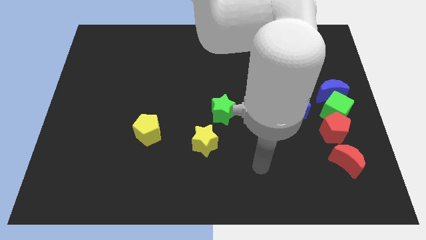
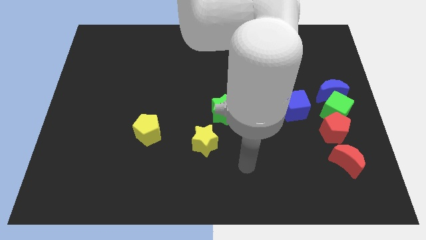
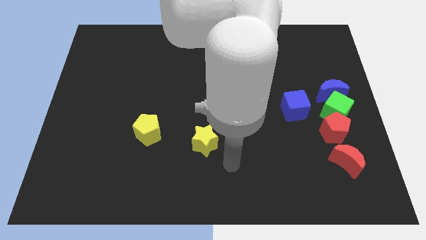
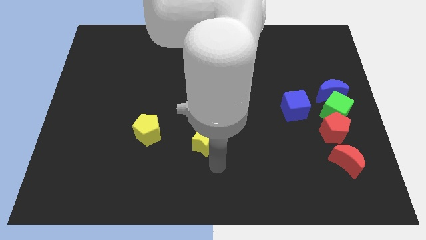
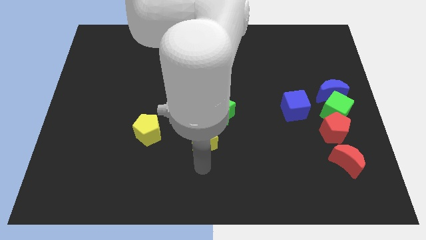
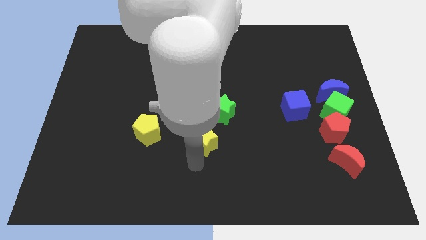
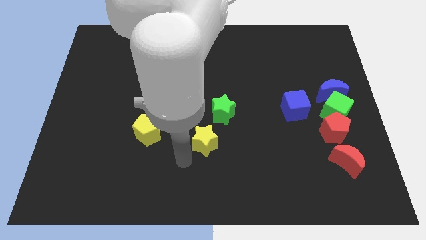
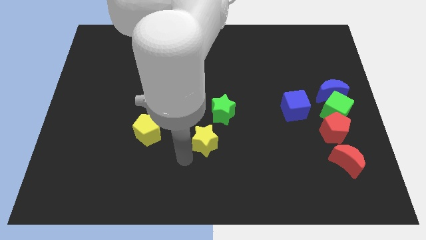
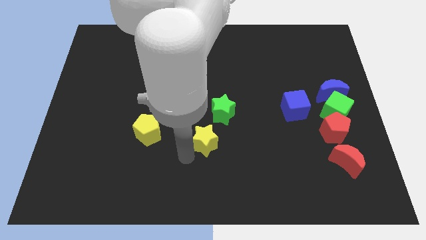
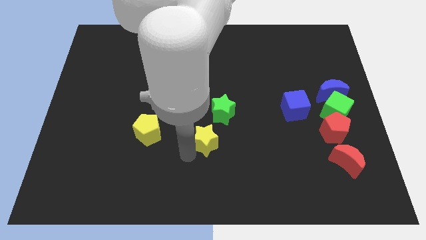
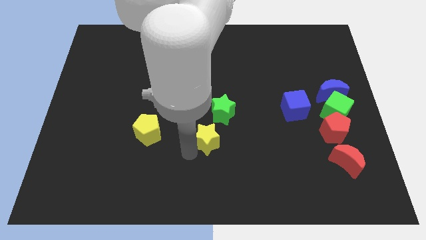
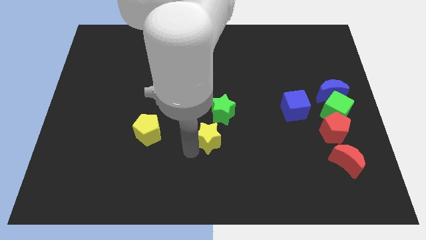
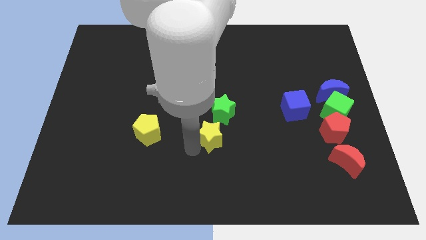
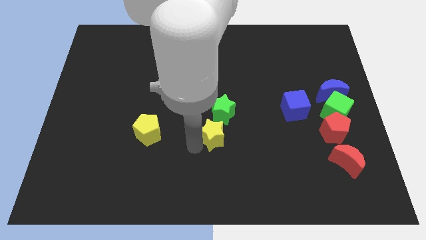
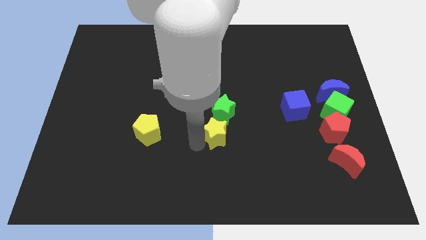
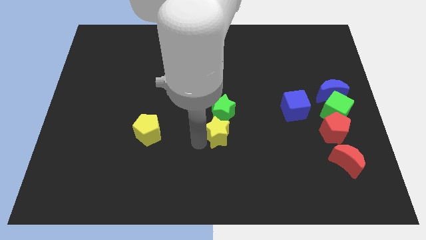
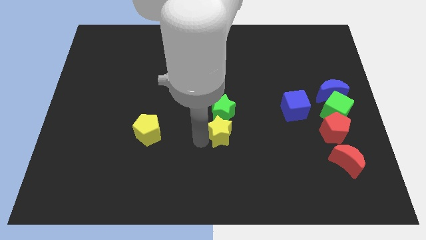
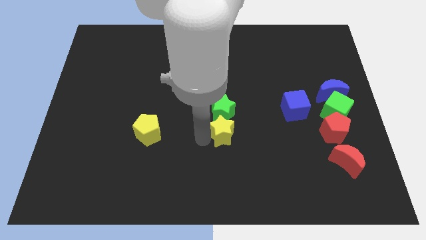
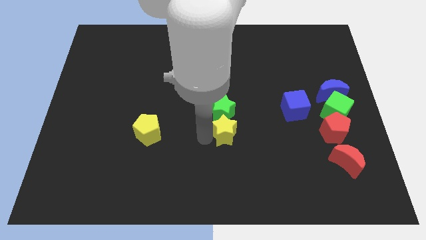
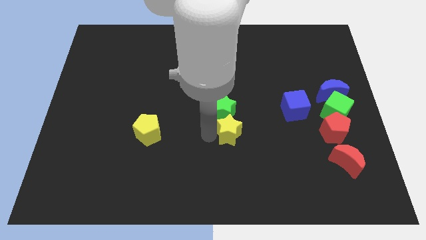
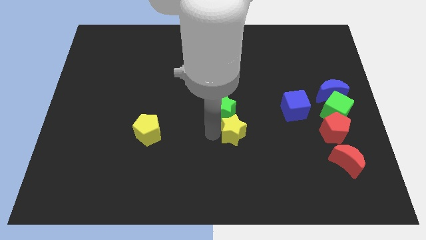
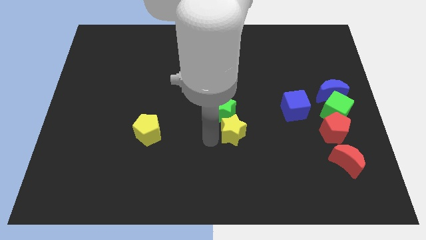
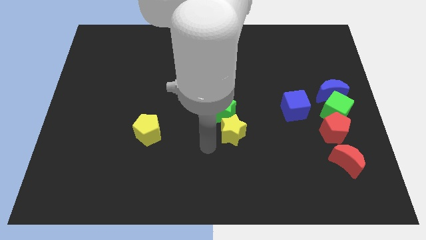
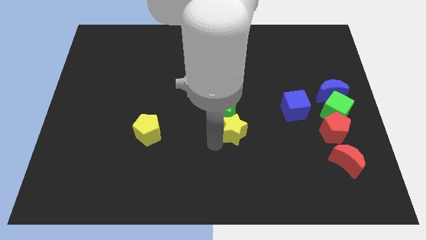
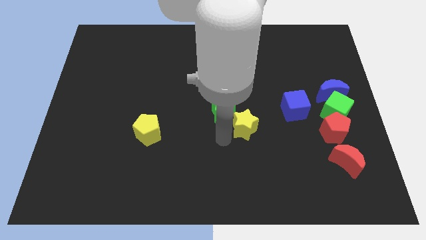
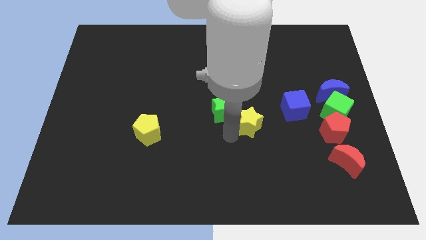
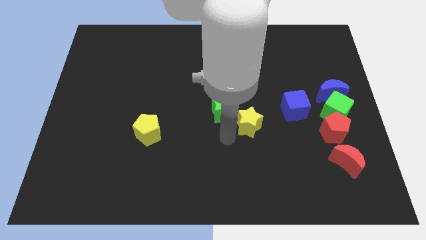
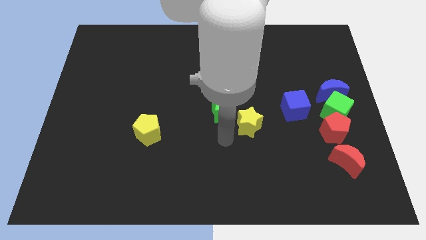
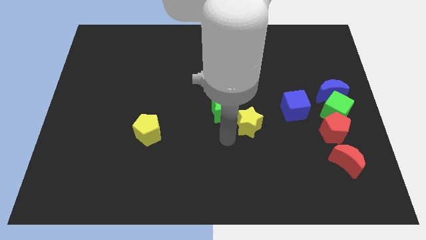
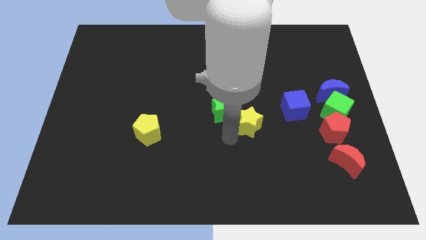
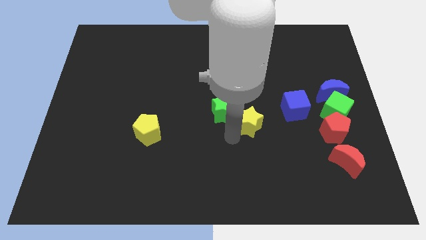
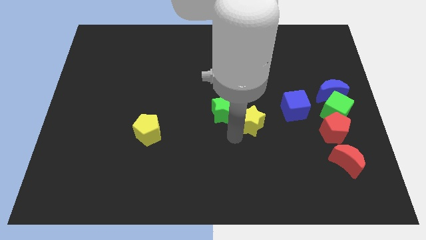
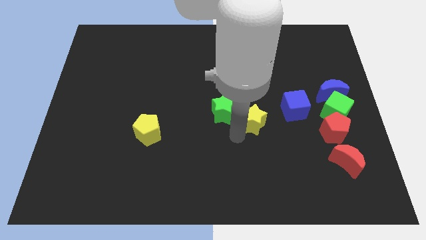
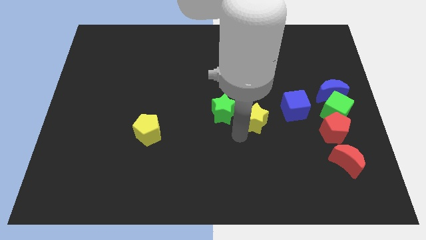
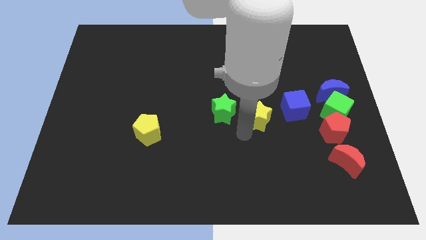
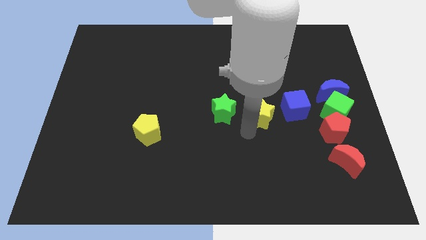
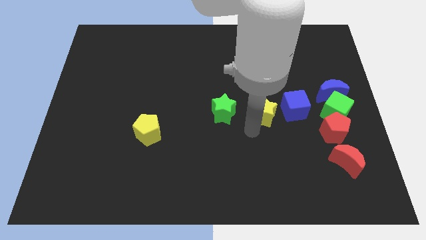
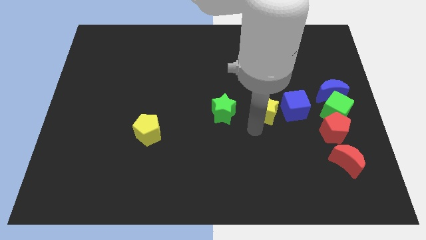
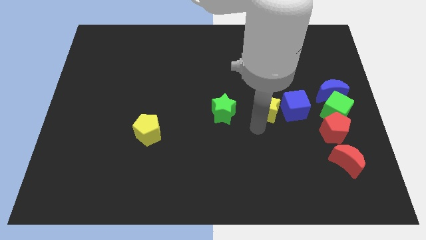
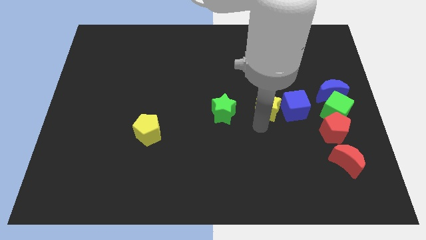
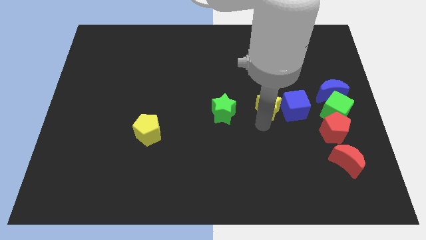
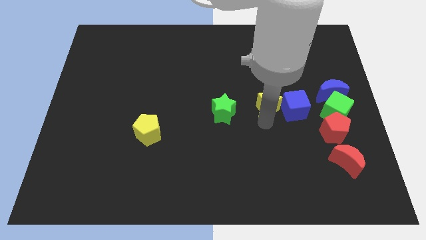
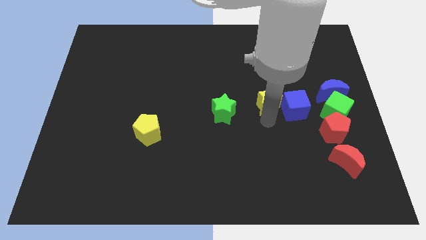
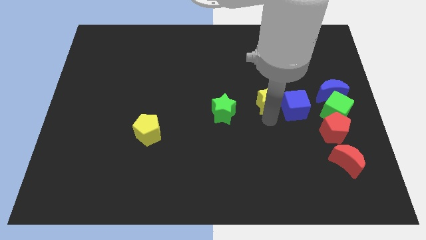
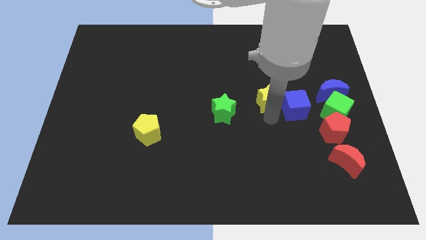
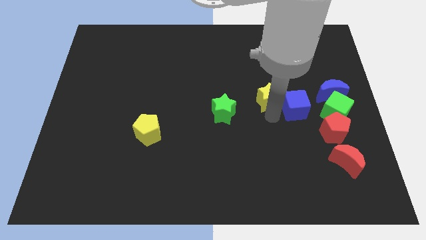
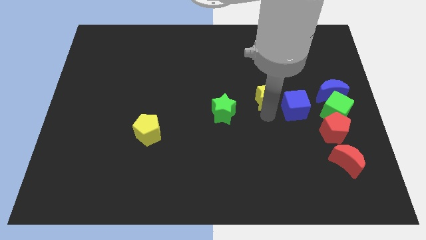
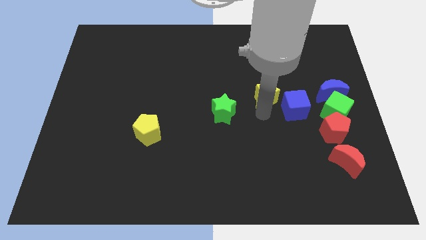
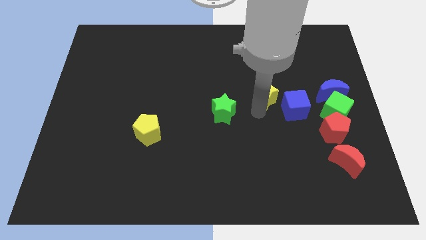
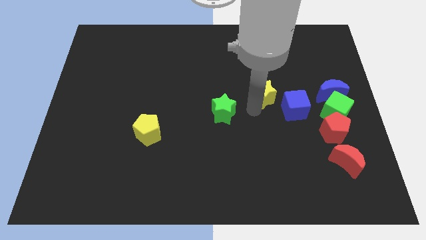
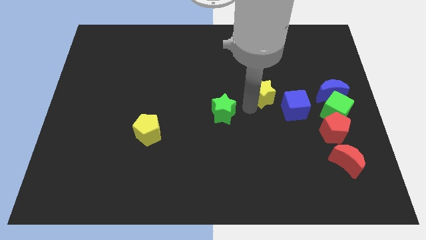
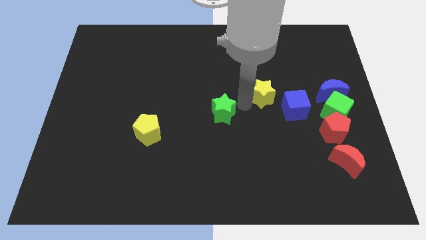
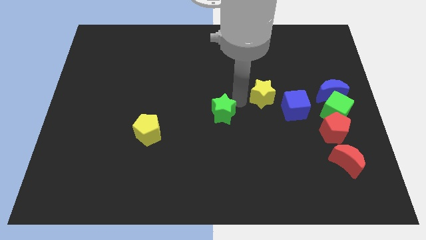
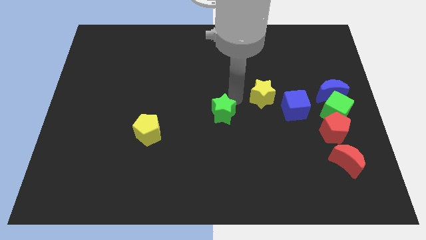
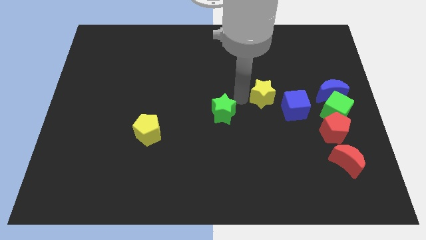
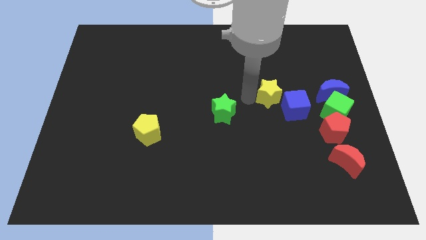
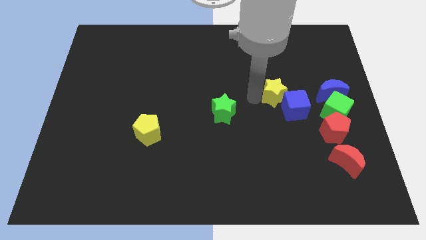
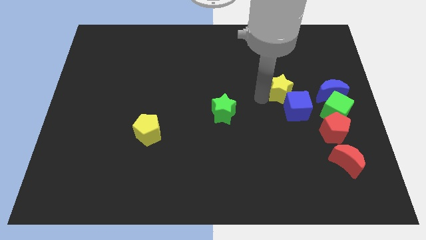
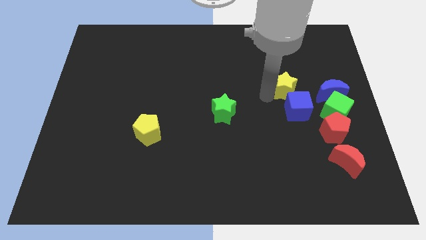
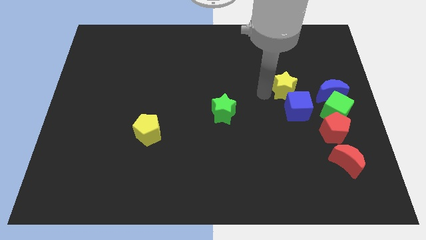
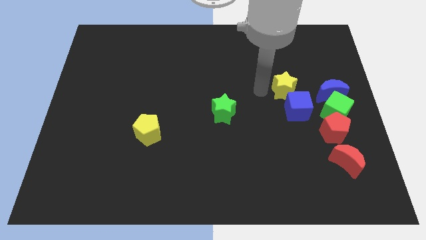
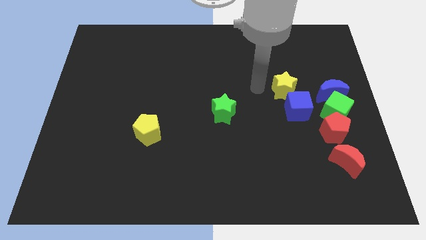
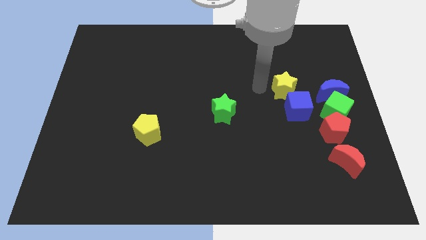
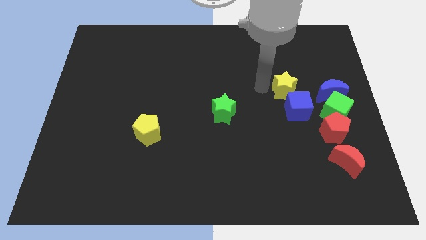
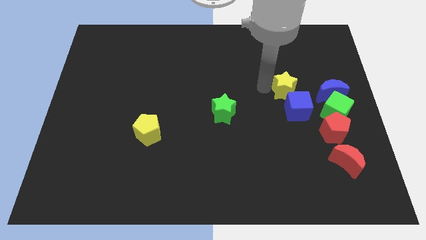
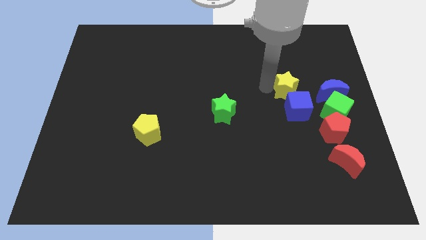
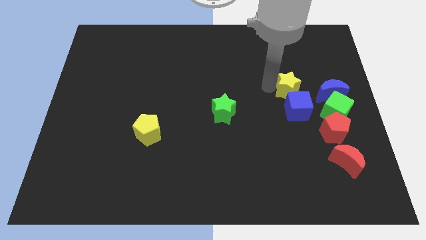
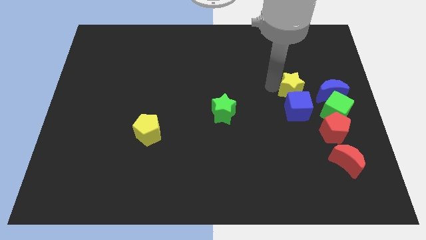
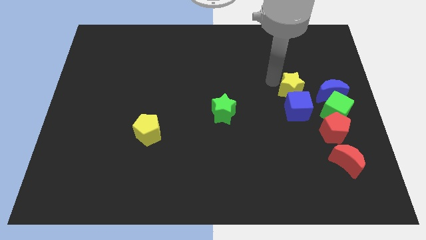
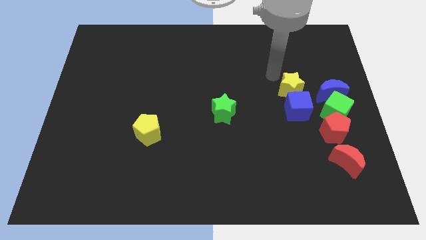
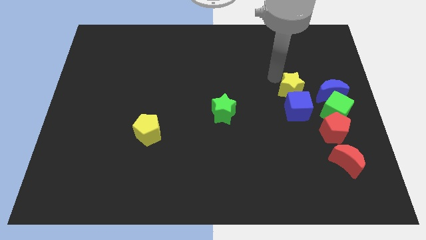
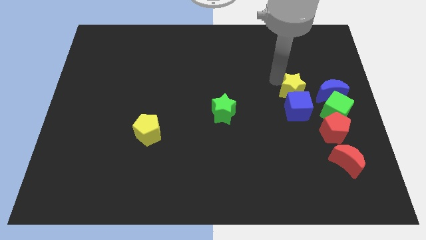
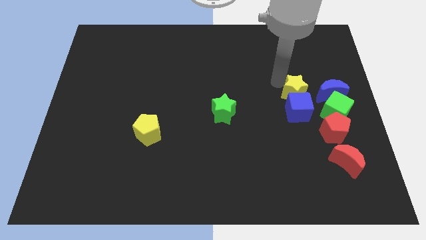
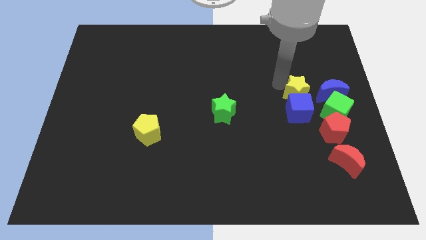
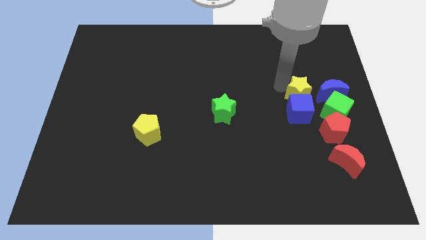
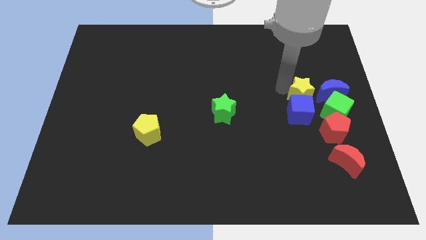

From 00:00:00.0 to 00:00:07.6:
slide the yellow star to the bottom left side of the blue moon
